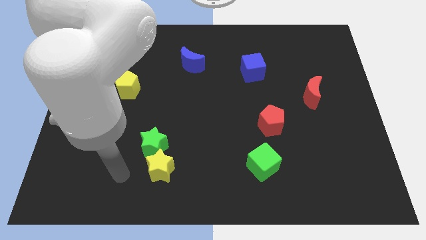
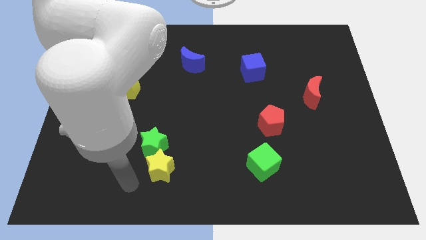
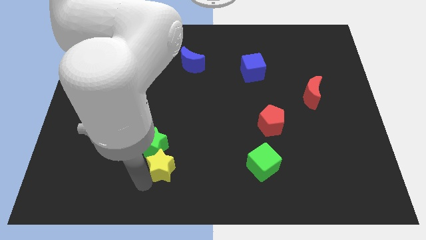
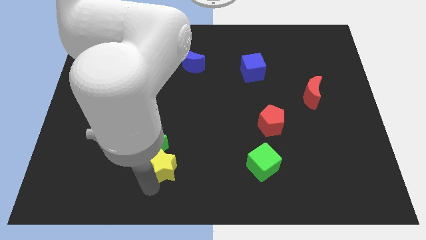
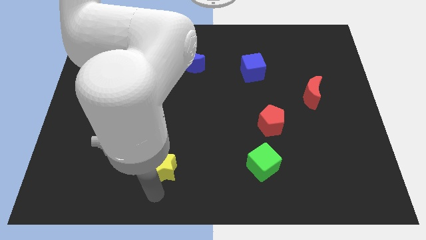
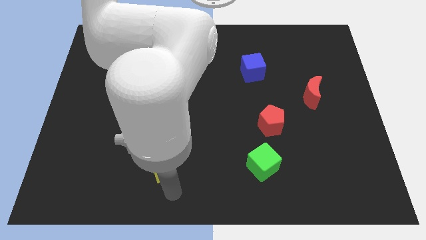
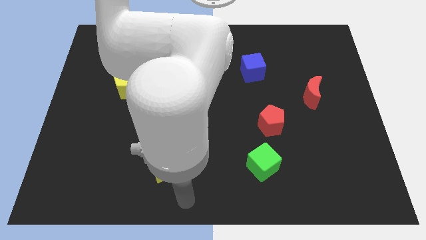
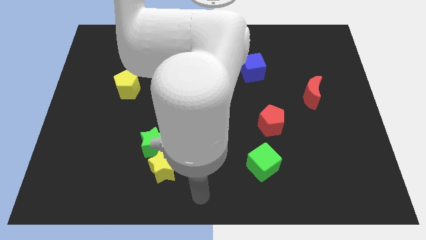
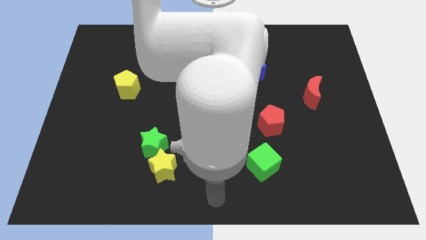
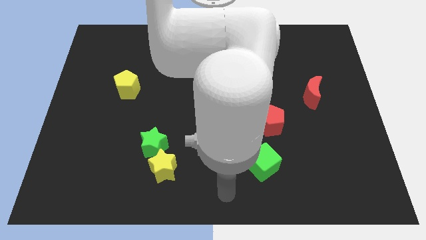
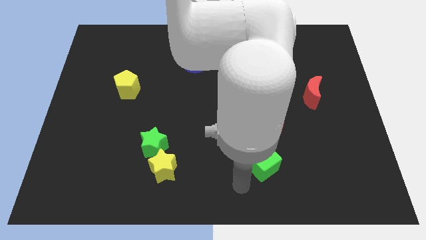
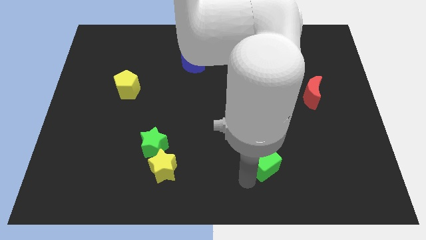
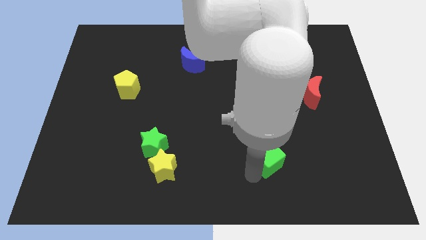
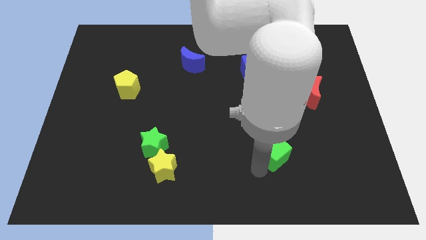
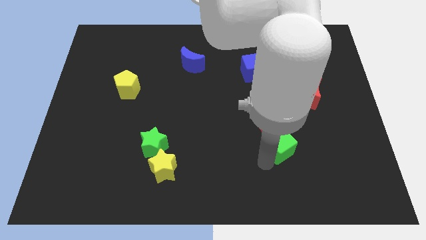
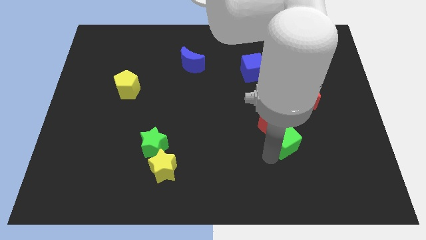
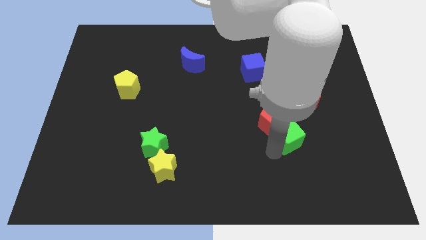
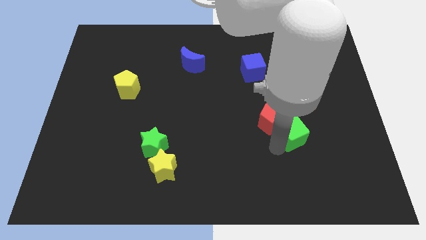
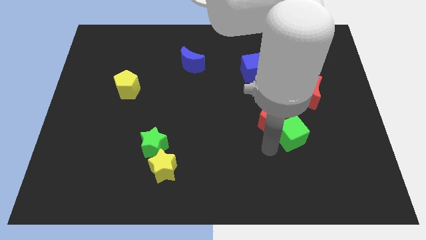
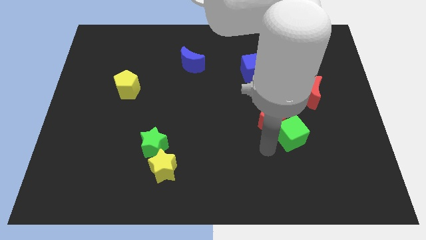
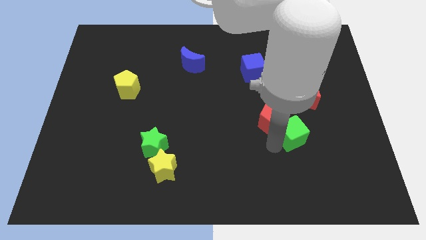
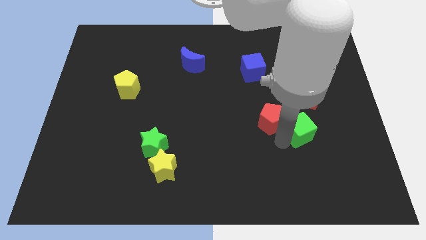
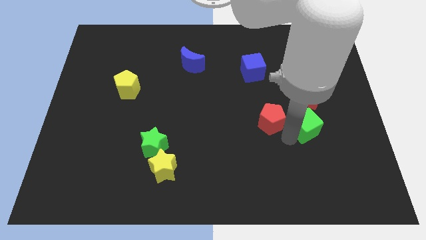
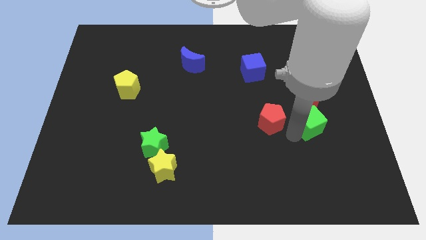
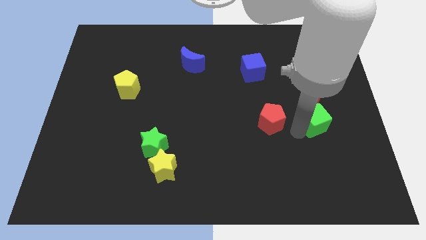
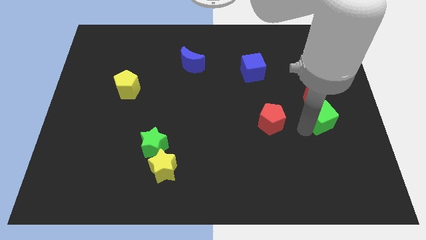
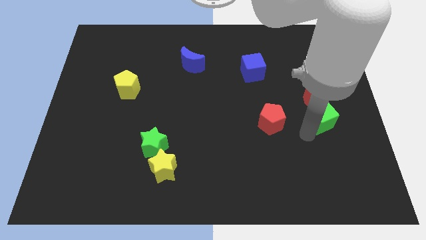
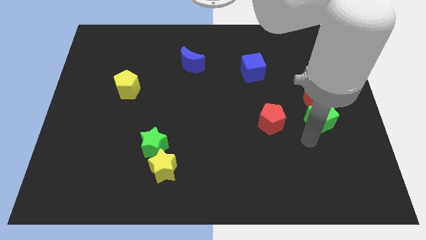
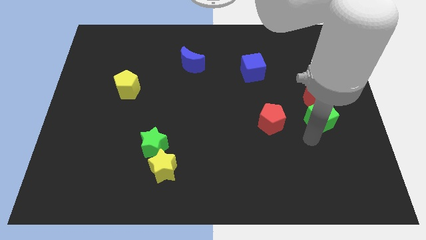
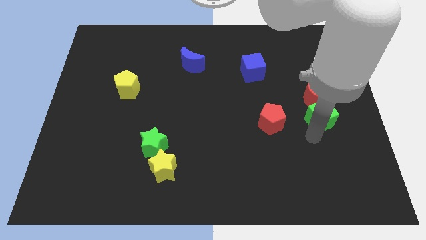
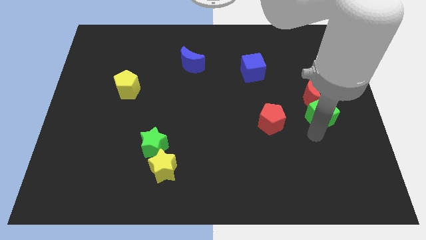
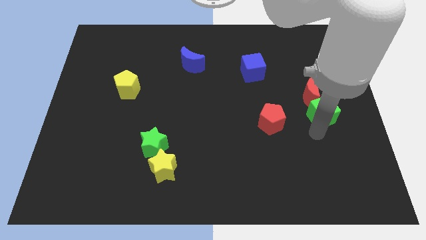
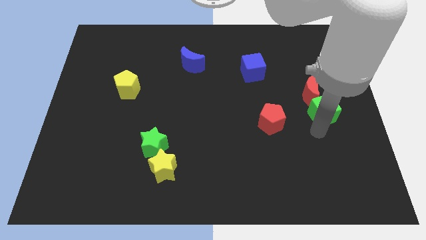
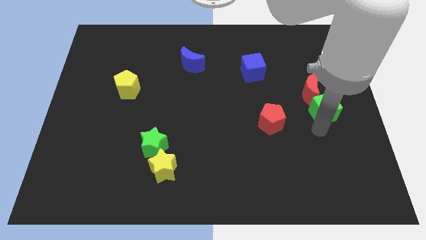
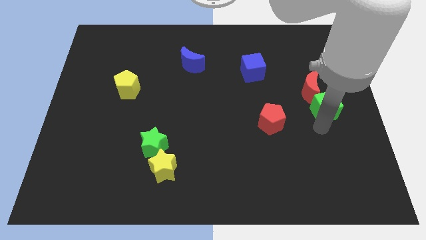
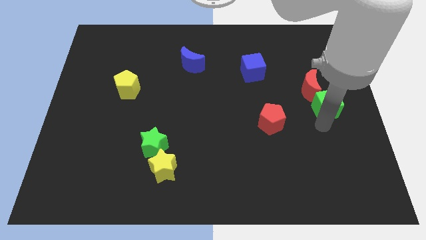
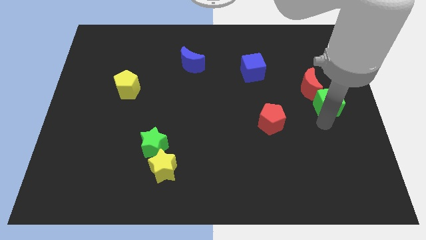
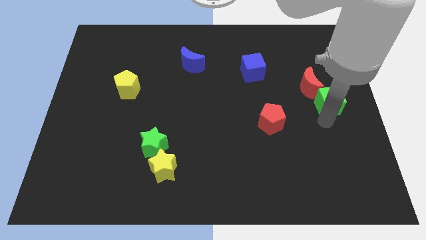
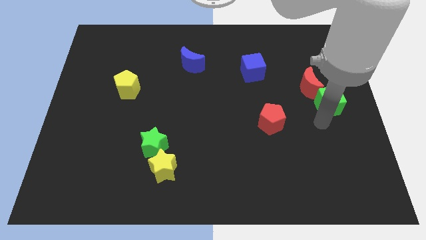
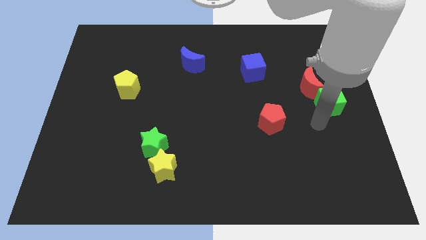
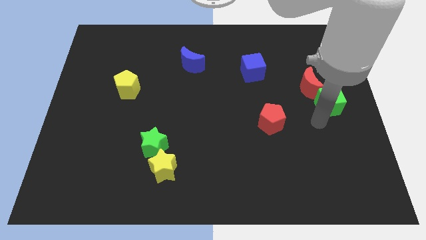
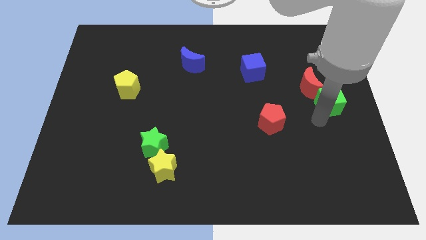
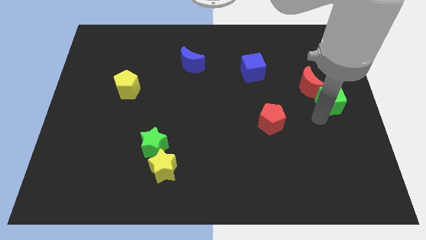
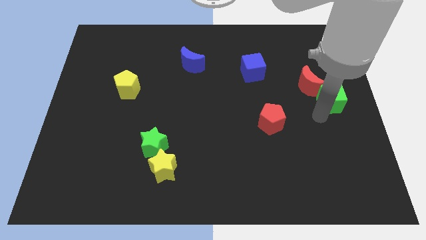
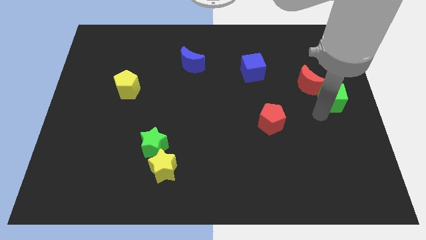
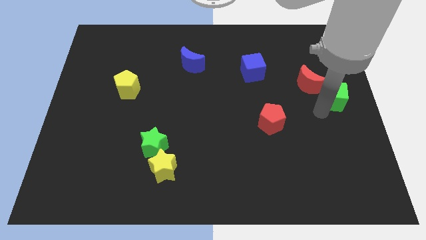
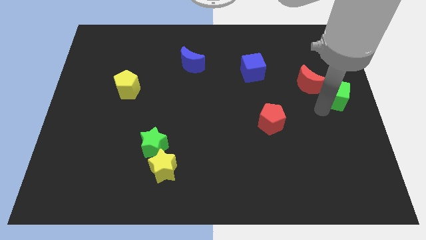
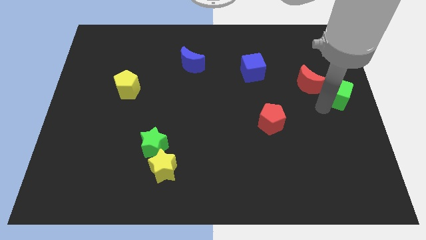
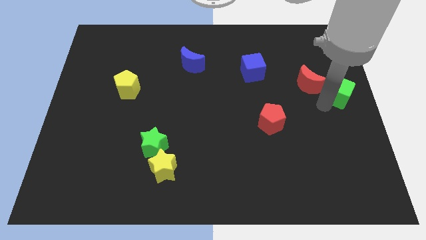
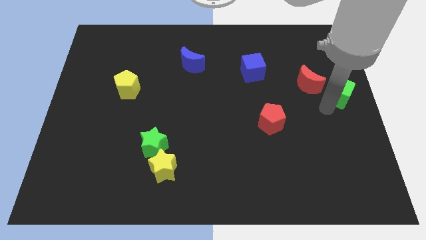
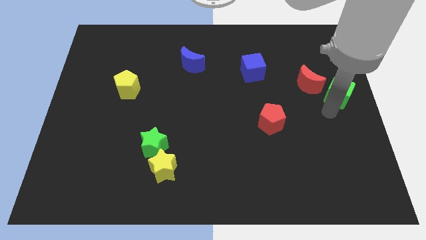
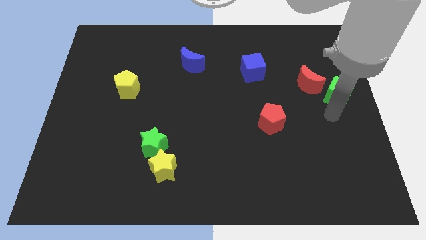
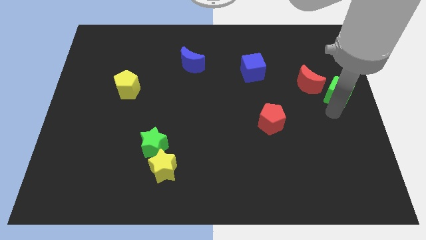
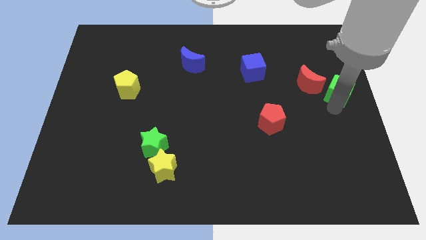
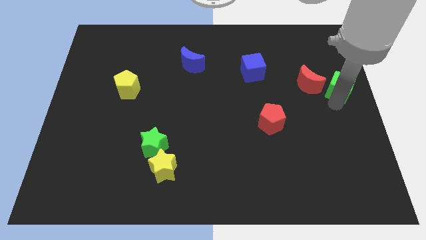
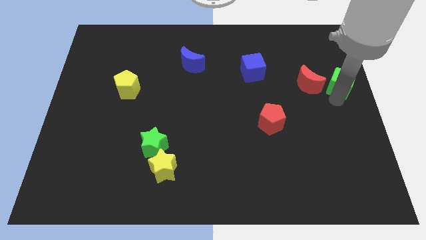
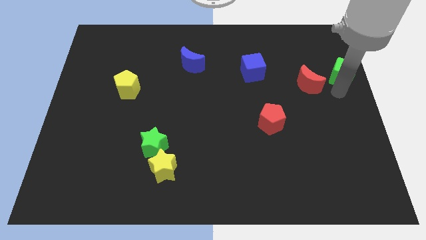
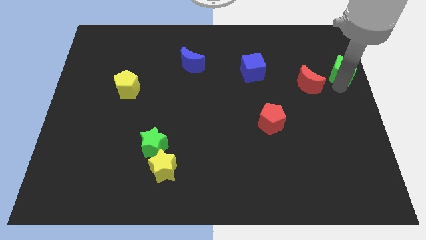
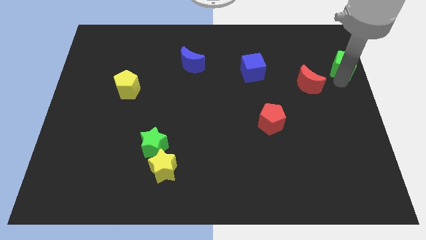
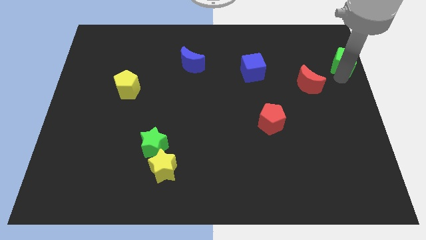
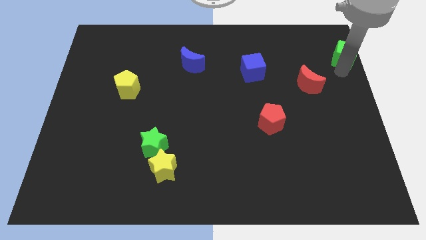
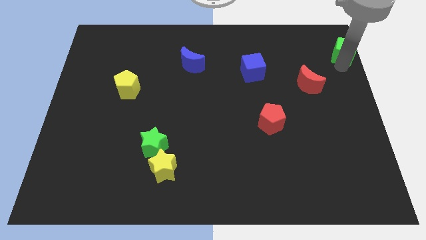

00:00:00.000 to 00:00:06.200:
move the green cube to the top right

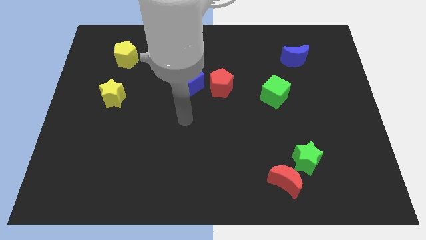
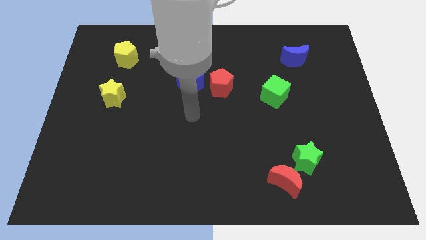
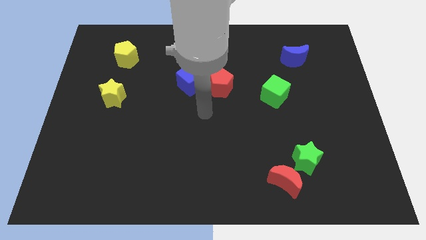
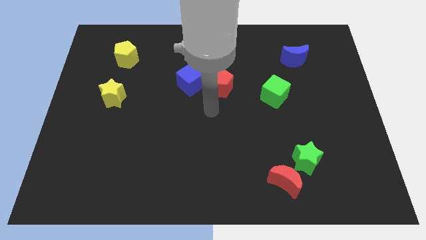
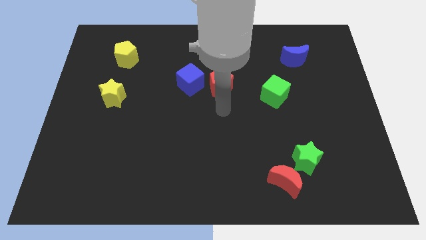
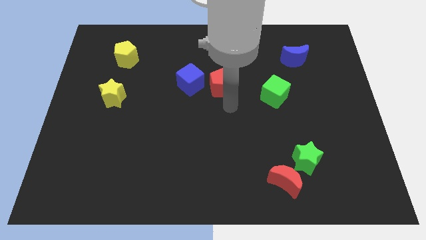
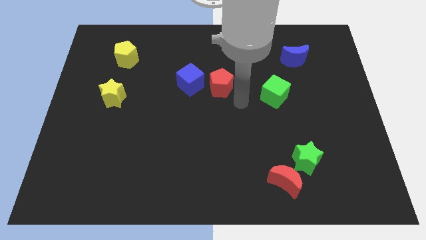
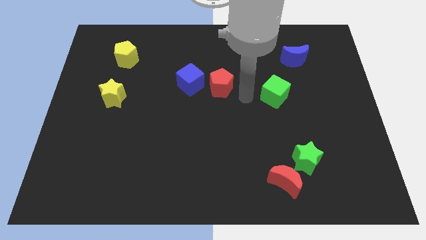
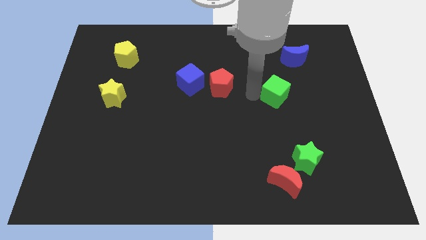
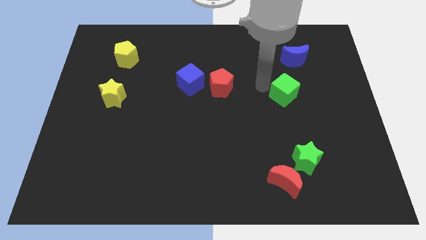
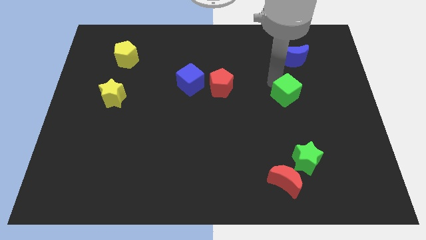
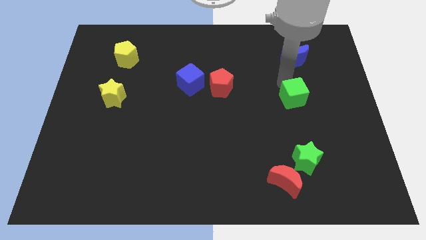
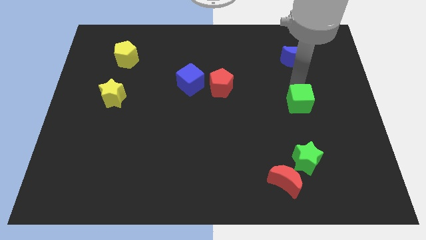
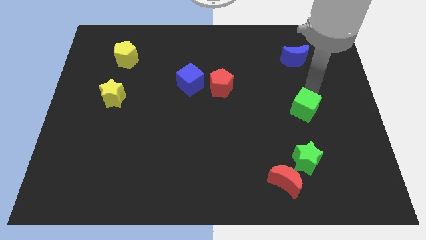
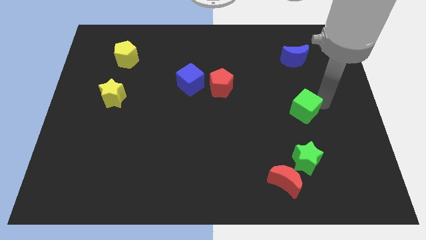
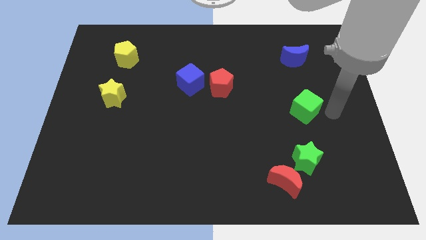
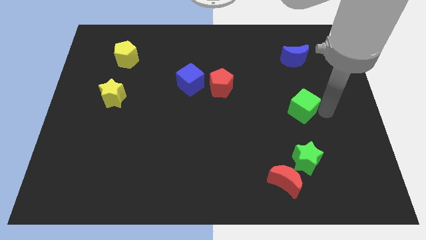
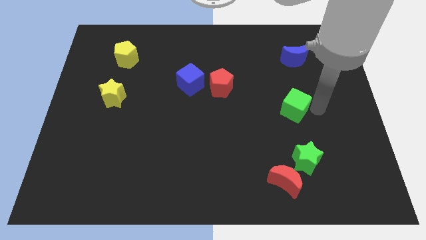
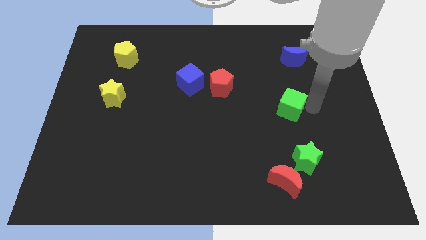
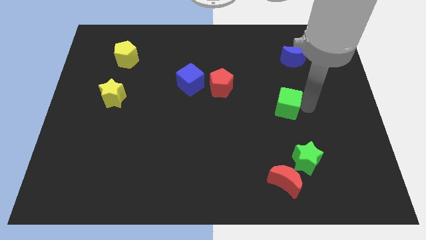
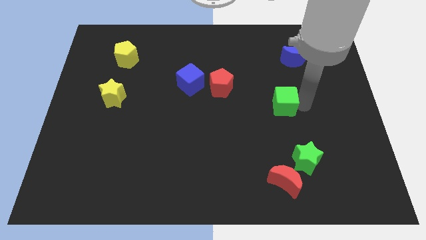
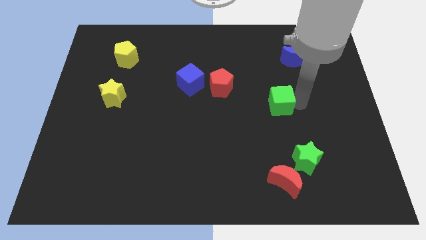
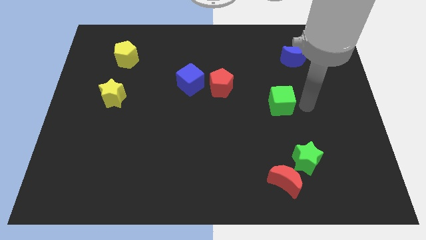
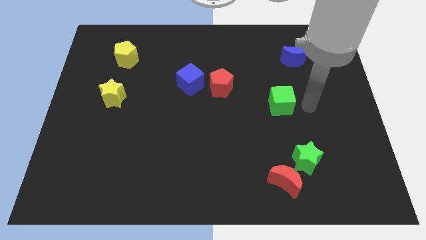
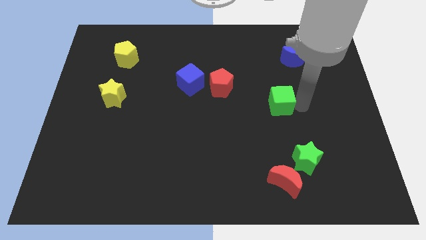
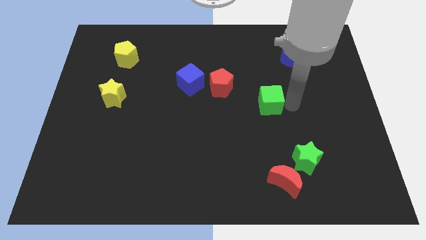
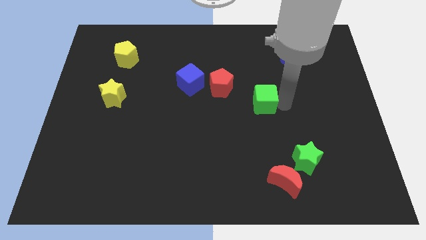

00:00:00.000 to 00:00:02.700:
push the green cube to the center
